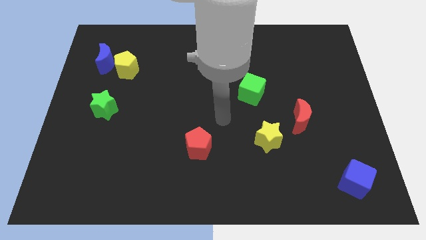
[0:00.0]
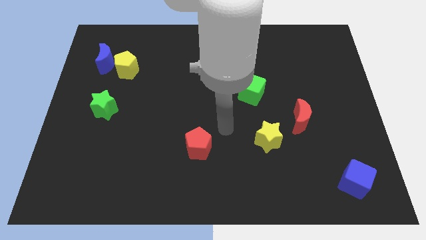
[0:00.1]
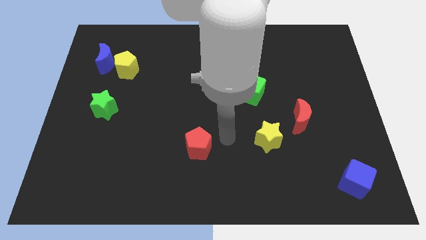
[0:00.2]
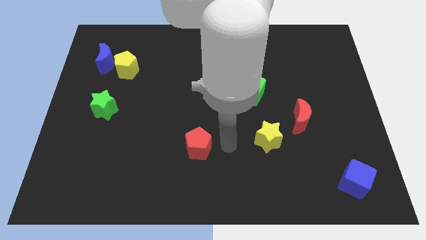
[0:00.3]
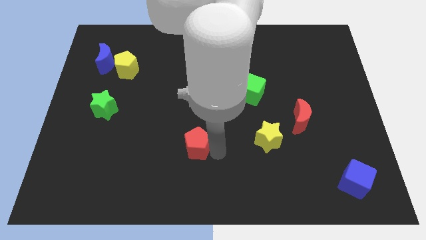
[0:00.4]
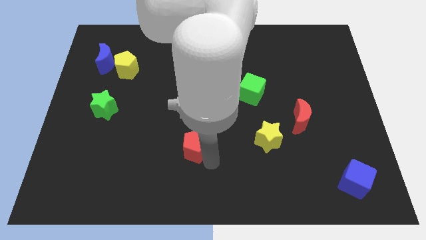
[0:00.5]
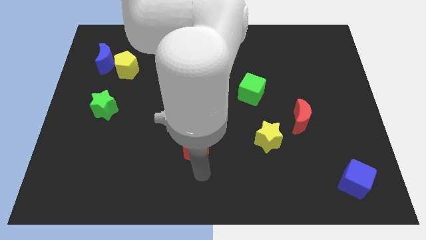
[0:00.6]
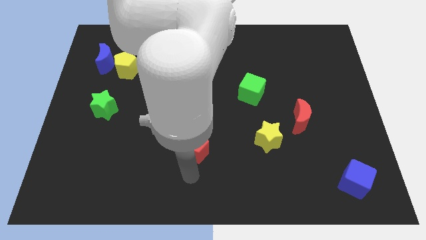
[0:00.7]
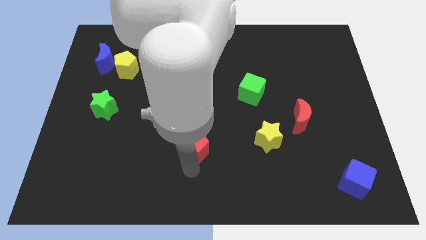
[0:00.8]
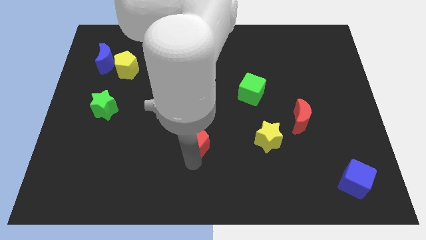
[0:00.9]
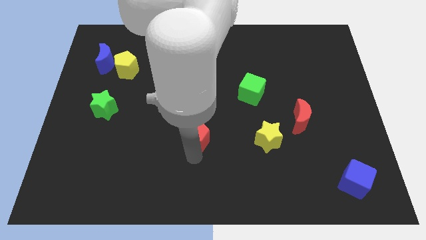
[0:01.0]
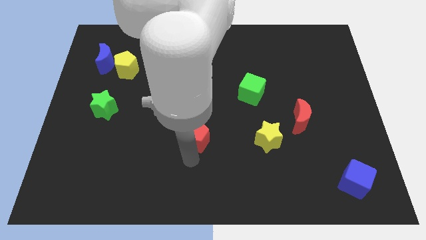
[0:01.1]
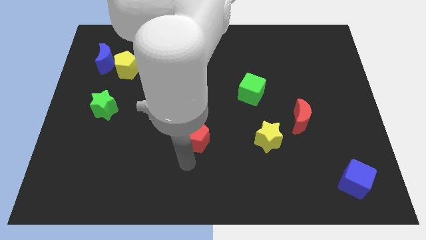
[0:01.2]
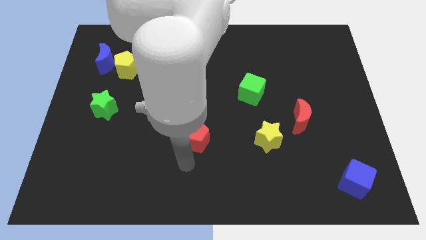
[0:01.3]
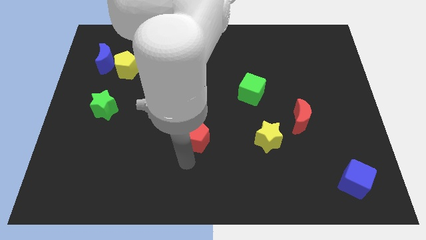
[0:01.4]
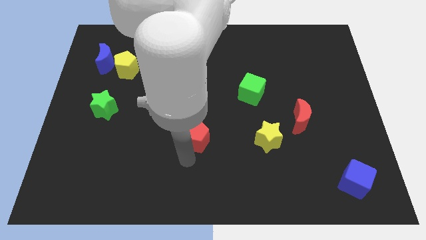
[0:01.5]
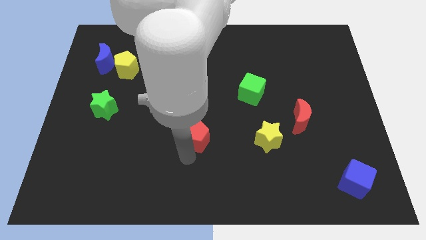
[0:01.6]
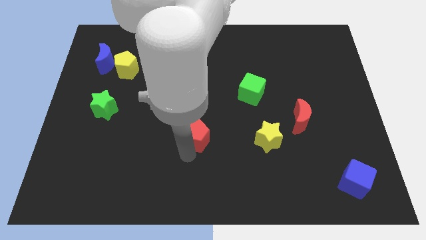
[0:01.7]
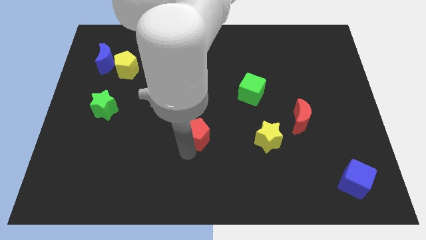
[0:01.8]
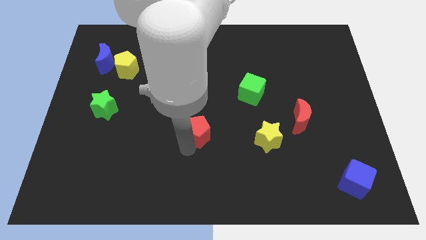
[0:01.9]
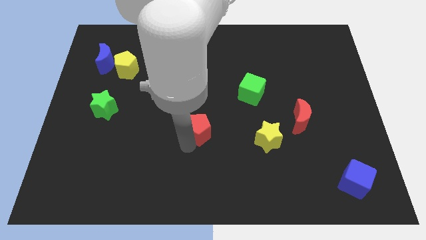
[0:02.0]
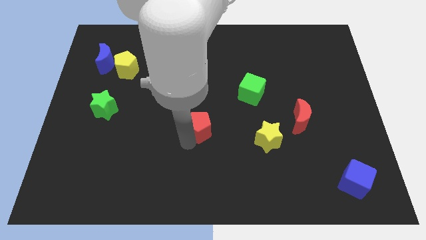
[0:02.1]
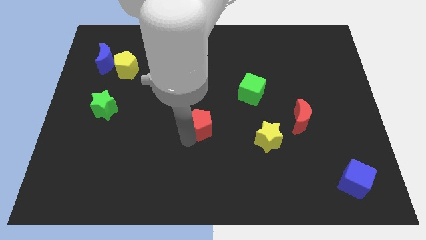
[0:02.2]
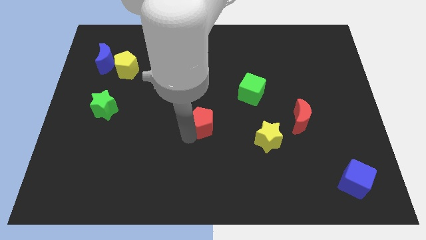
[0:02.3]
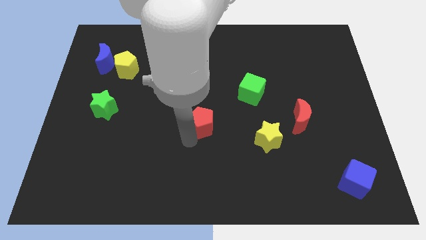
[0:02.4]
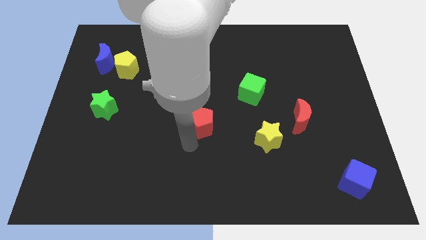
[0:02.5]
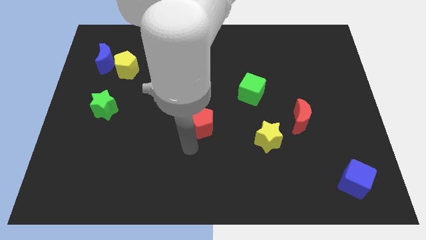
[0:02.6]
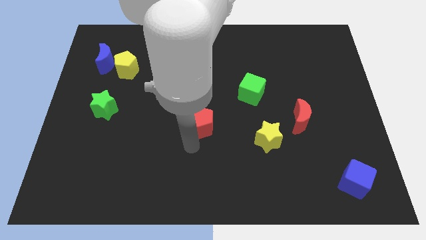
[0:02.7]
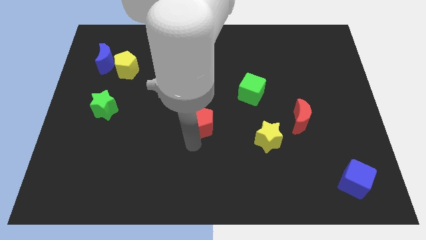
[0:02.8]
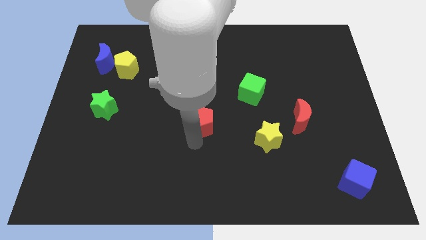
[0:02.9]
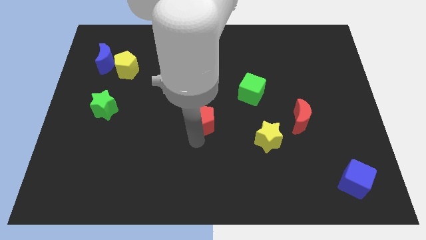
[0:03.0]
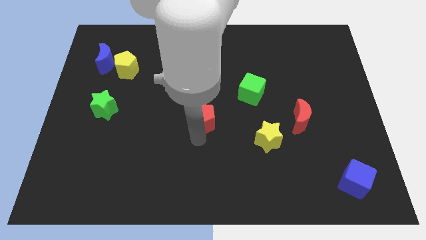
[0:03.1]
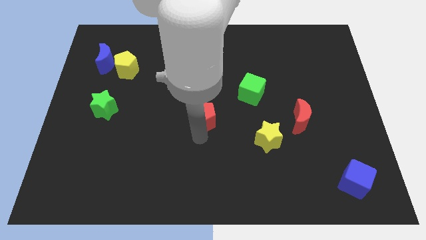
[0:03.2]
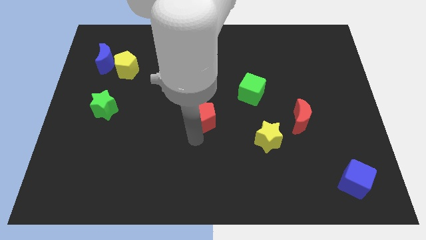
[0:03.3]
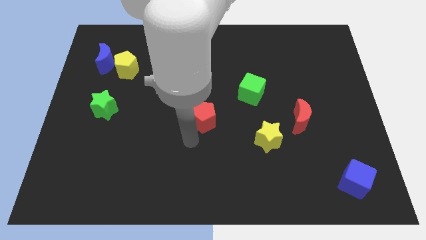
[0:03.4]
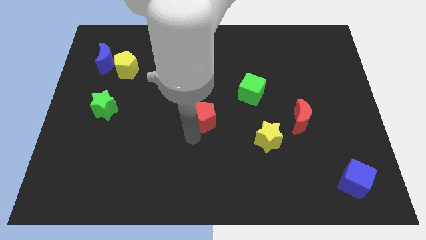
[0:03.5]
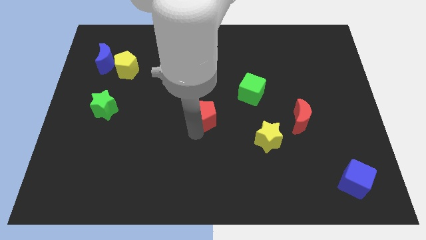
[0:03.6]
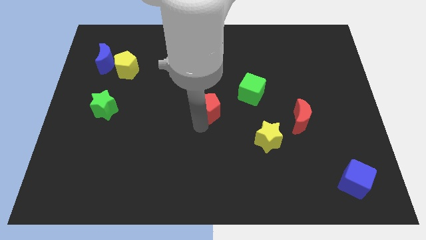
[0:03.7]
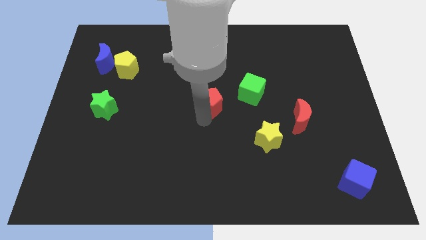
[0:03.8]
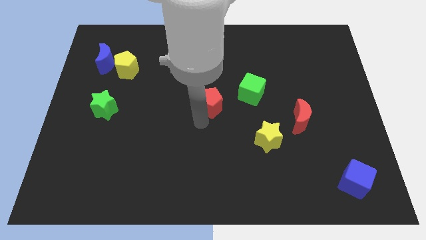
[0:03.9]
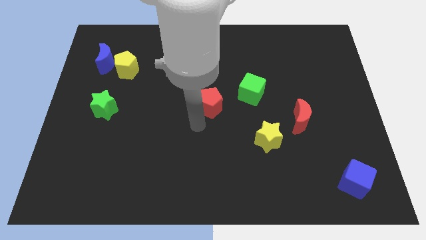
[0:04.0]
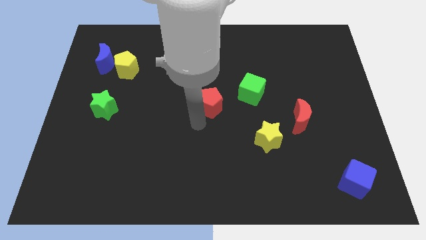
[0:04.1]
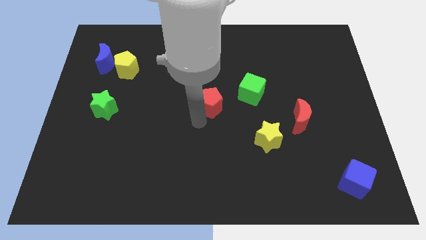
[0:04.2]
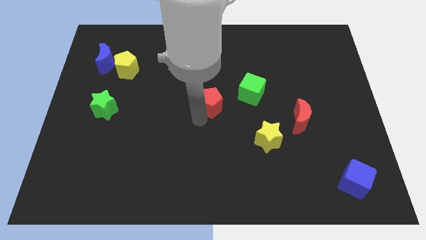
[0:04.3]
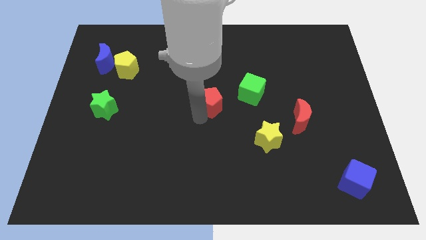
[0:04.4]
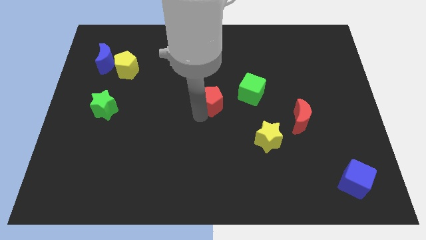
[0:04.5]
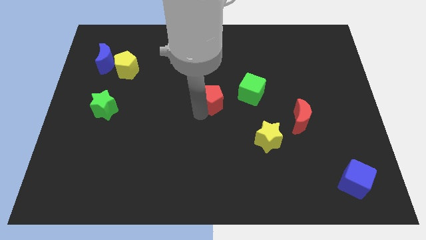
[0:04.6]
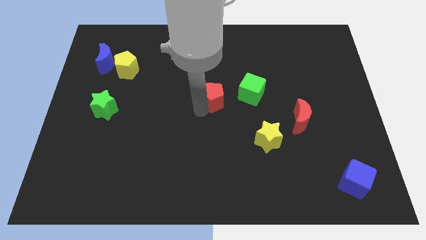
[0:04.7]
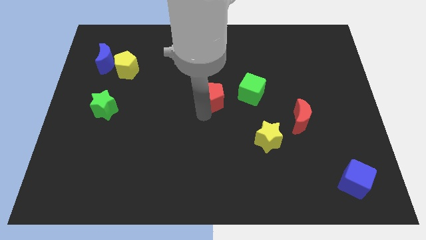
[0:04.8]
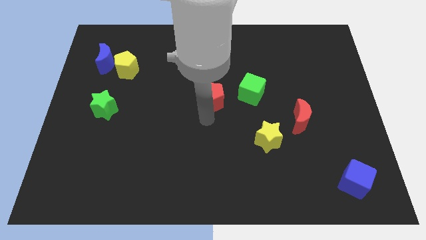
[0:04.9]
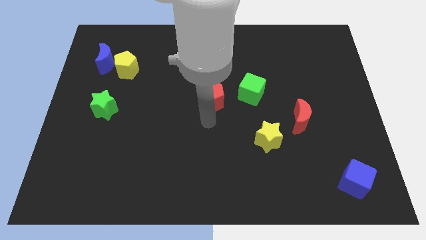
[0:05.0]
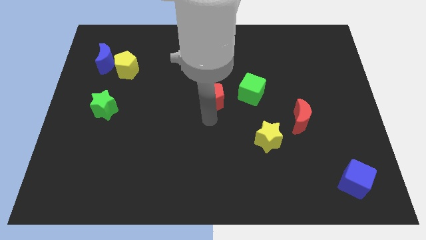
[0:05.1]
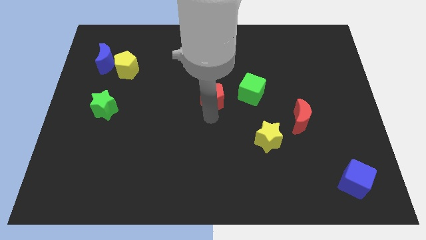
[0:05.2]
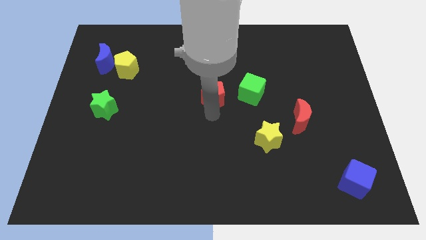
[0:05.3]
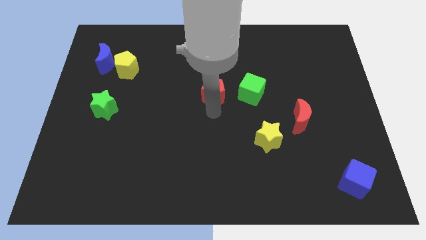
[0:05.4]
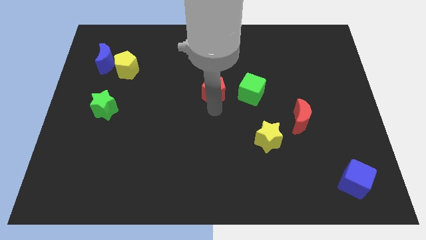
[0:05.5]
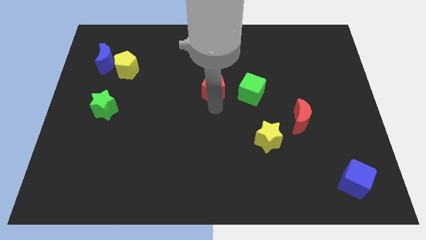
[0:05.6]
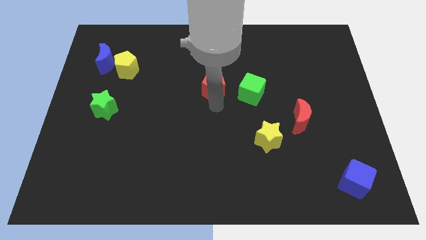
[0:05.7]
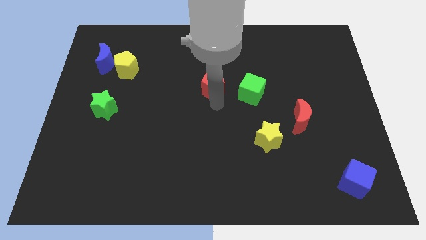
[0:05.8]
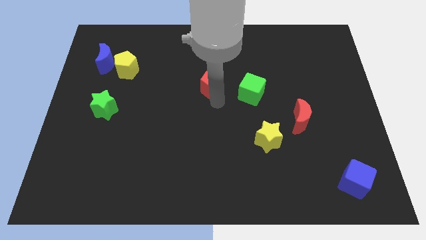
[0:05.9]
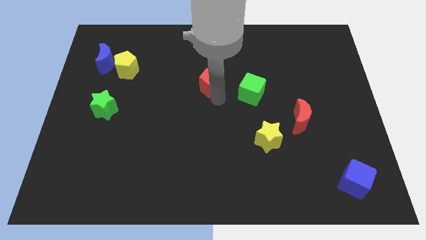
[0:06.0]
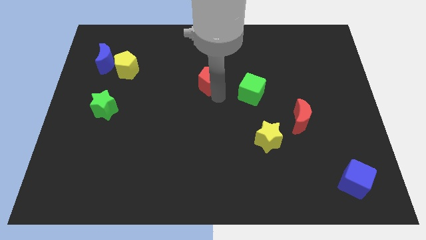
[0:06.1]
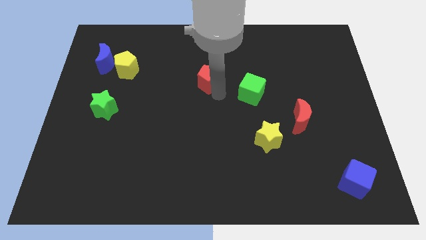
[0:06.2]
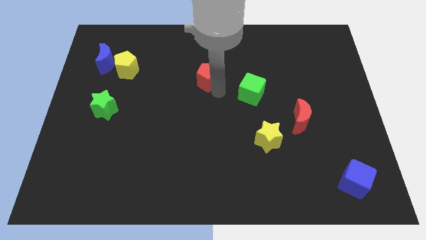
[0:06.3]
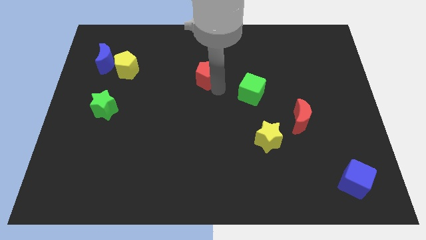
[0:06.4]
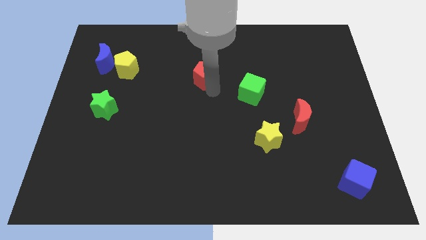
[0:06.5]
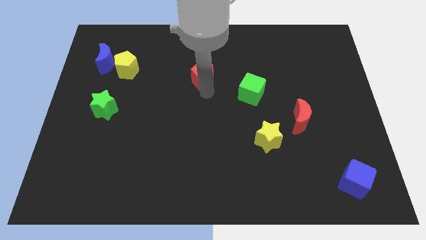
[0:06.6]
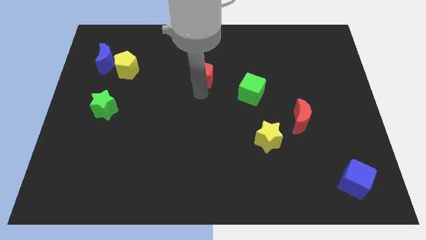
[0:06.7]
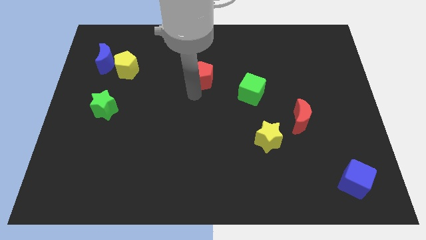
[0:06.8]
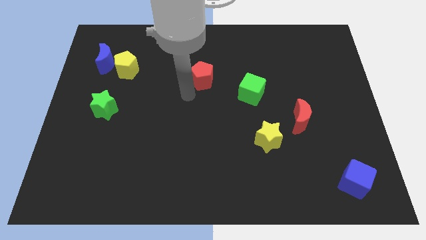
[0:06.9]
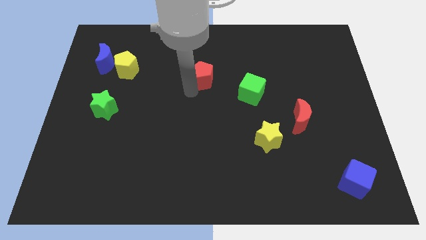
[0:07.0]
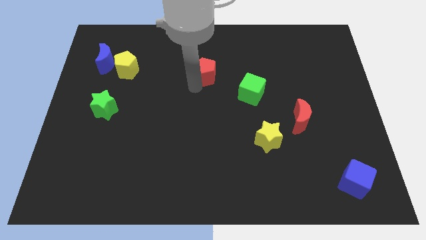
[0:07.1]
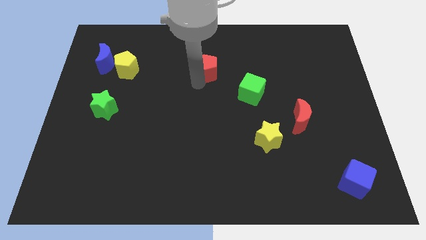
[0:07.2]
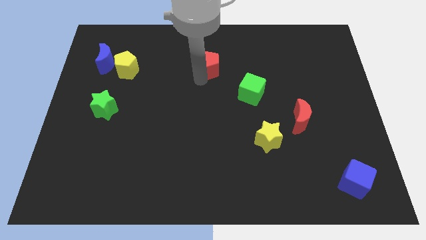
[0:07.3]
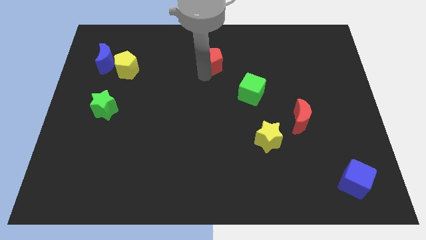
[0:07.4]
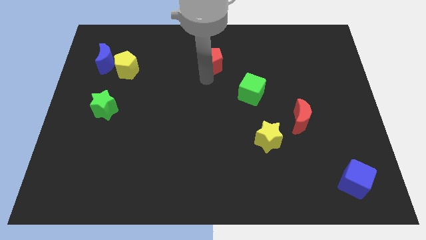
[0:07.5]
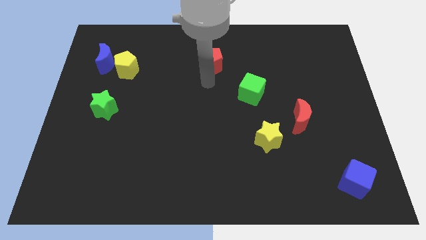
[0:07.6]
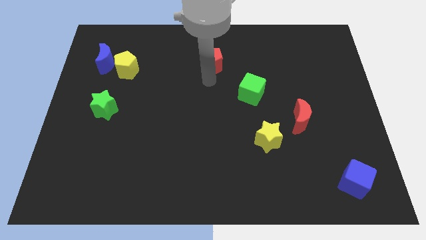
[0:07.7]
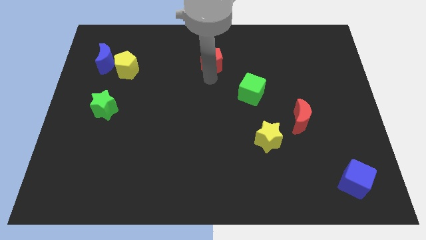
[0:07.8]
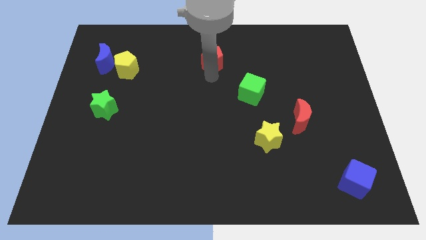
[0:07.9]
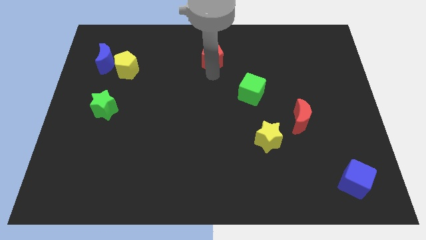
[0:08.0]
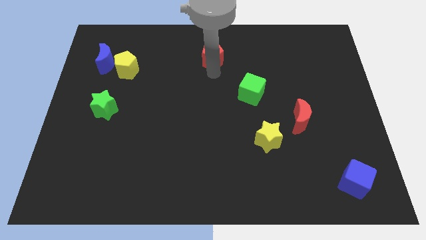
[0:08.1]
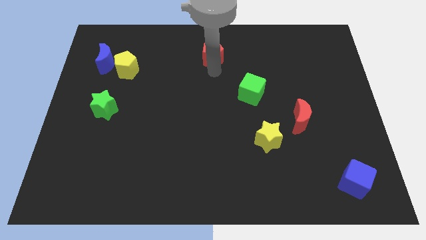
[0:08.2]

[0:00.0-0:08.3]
slide the red pentagon to the top side
